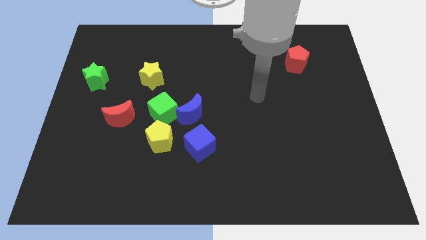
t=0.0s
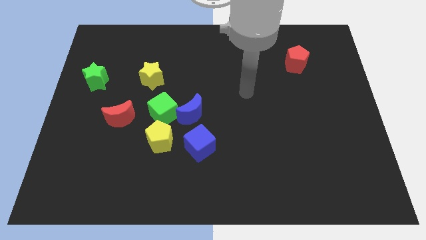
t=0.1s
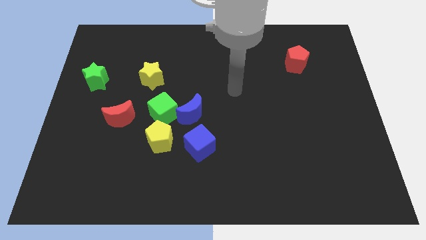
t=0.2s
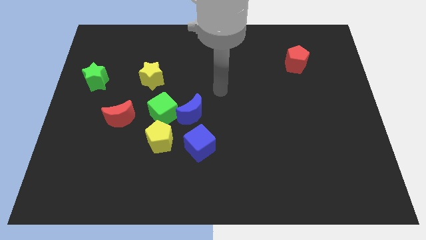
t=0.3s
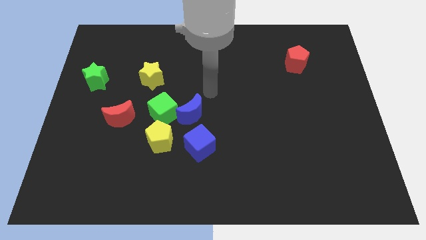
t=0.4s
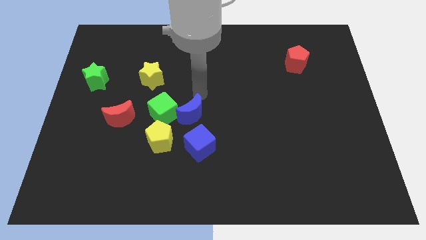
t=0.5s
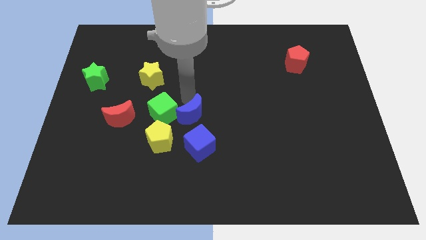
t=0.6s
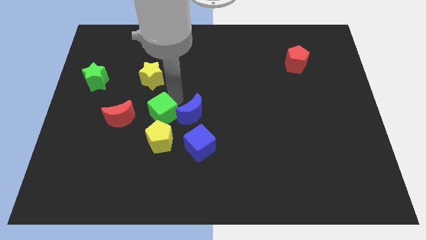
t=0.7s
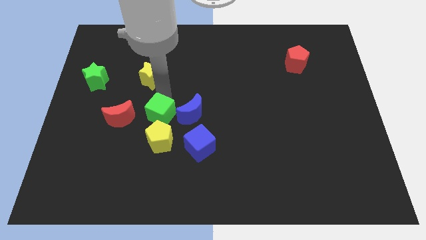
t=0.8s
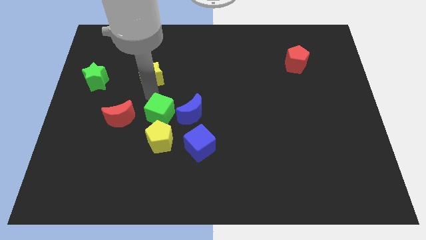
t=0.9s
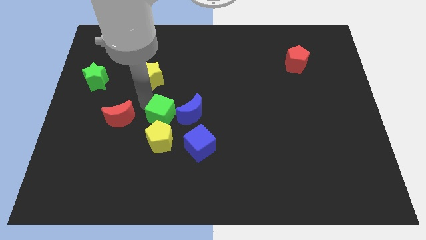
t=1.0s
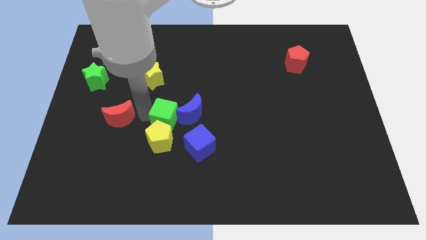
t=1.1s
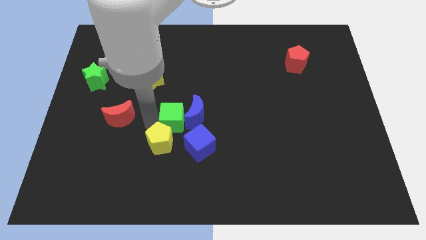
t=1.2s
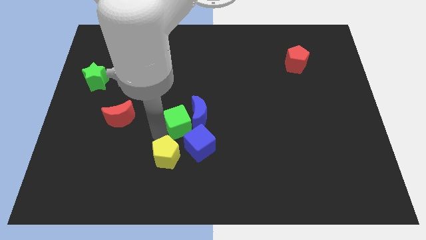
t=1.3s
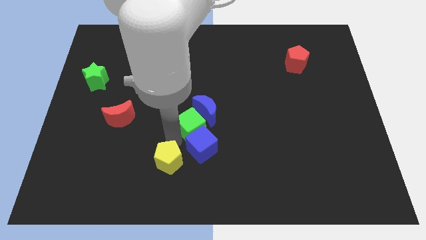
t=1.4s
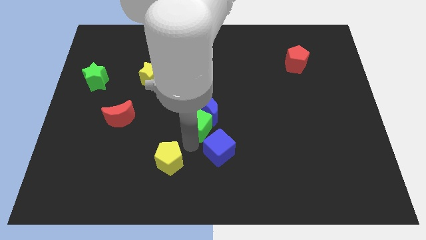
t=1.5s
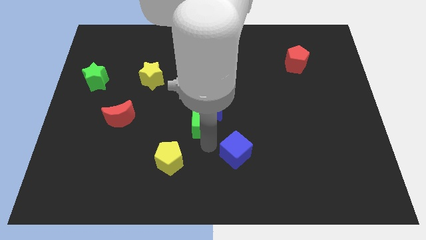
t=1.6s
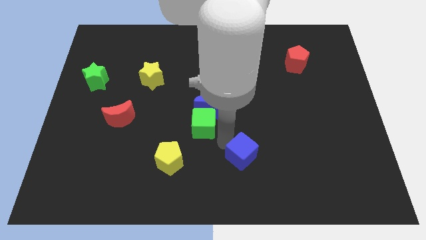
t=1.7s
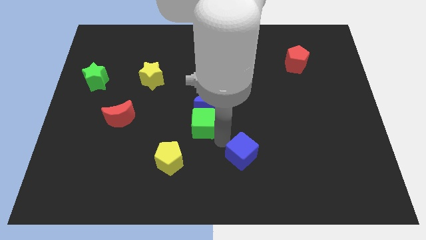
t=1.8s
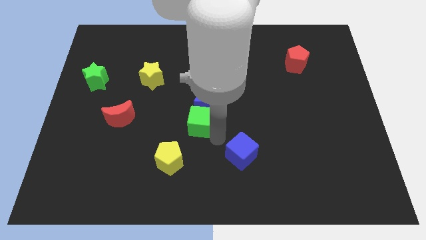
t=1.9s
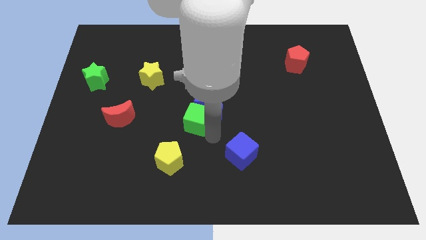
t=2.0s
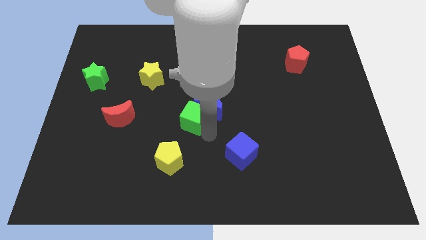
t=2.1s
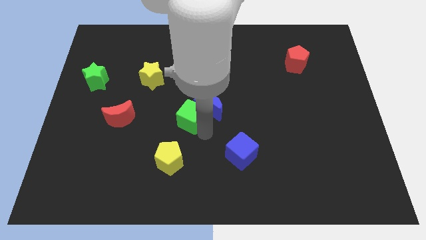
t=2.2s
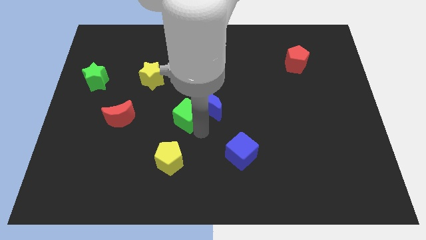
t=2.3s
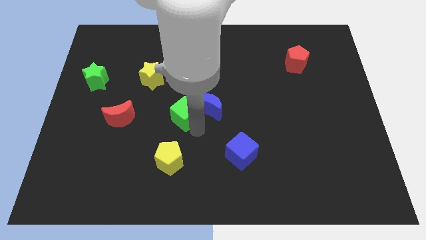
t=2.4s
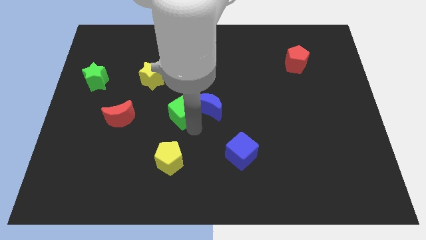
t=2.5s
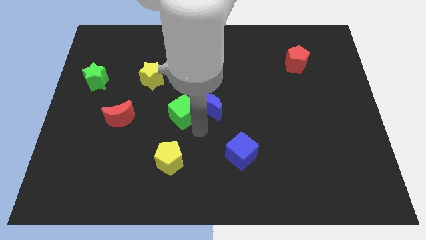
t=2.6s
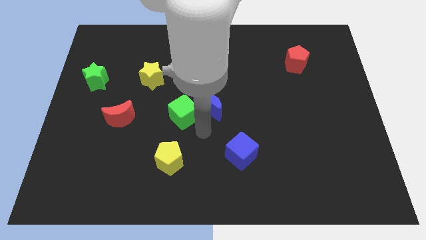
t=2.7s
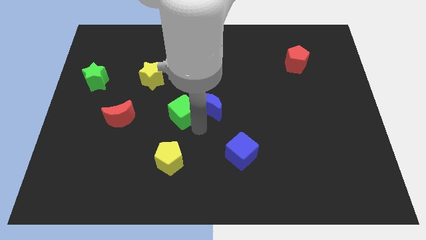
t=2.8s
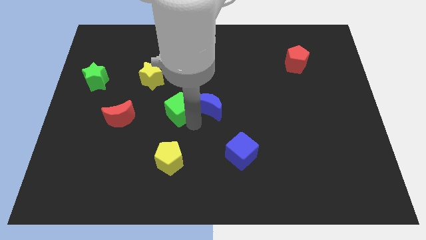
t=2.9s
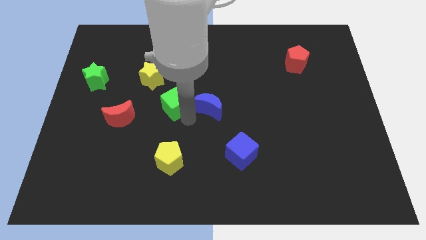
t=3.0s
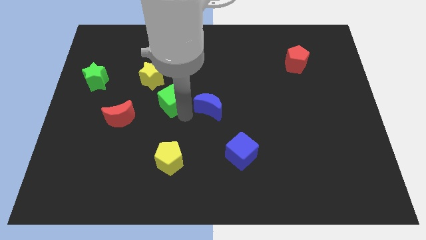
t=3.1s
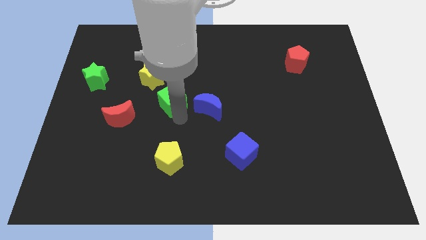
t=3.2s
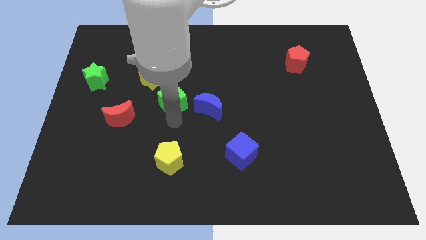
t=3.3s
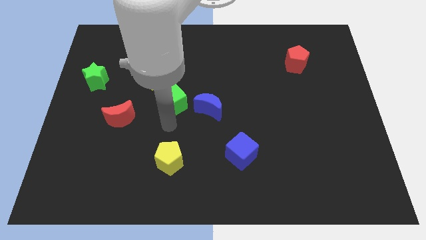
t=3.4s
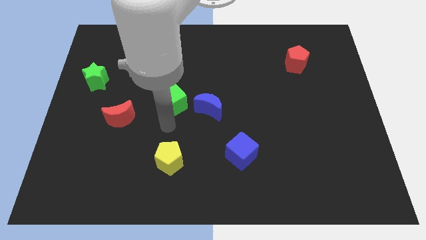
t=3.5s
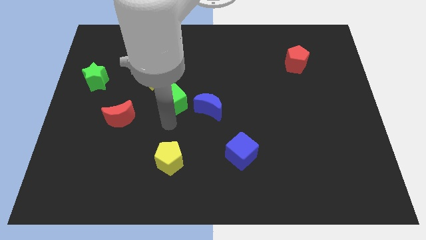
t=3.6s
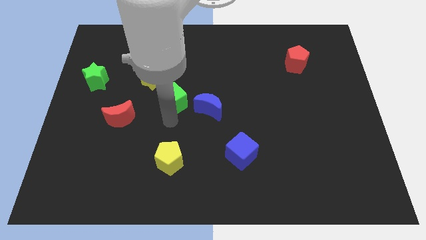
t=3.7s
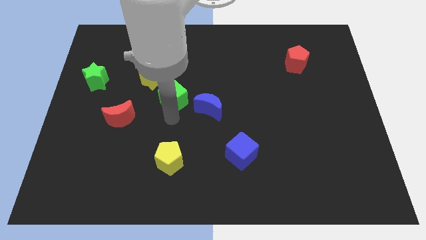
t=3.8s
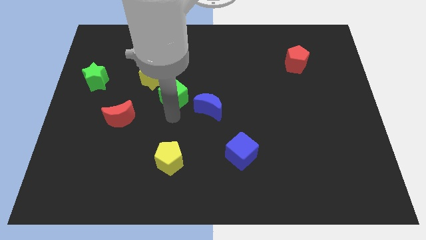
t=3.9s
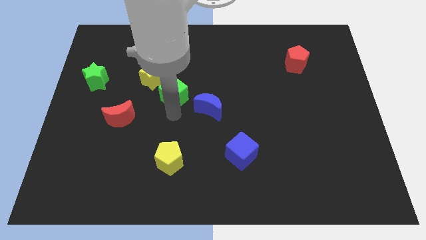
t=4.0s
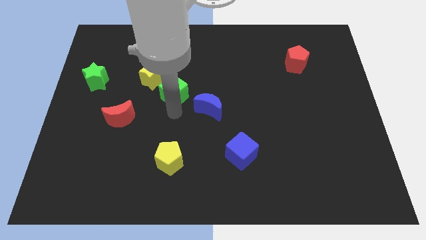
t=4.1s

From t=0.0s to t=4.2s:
separate the green cube from the clump

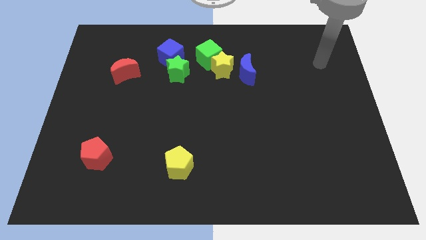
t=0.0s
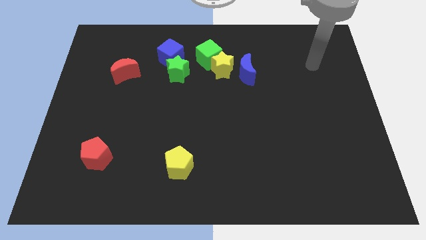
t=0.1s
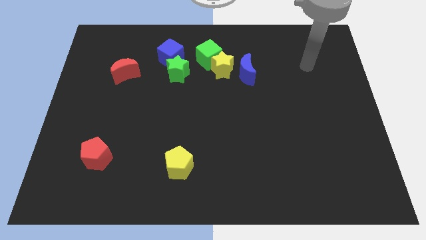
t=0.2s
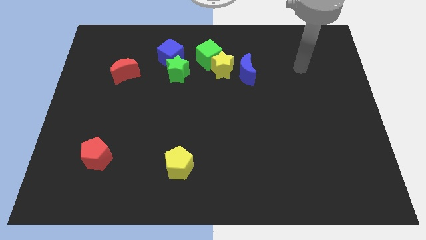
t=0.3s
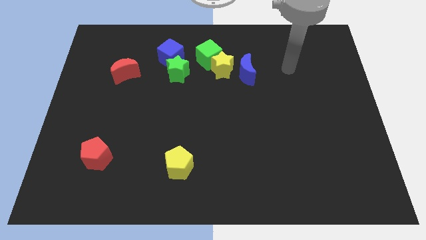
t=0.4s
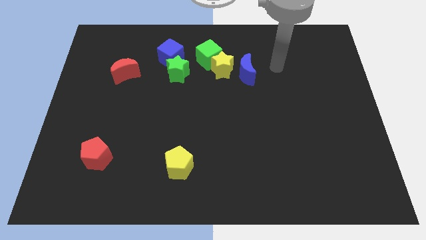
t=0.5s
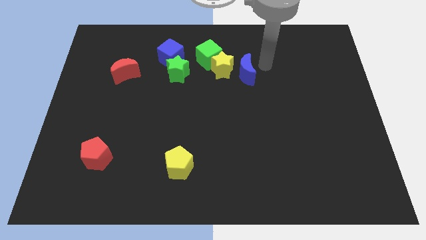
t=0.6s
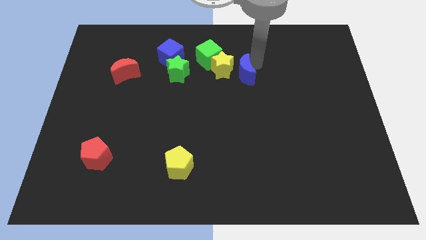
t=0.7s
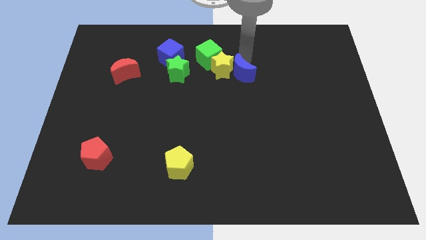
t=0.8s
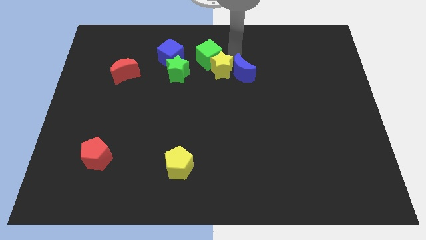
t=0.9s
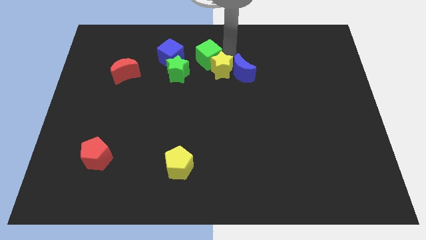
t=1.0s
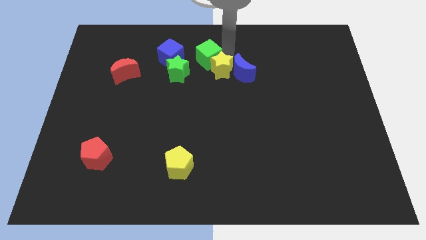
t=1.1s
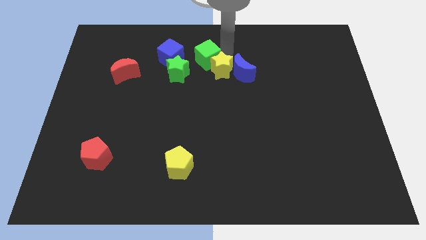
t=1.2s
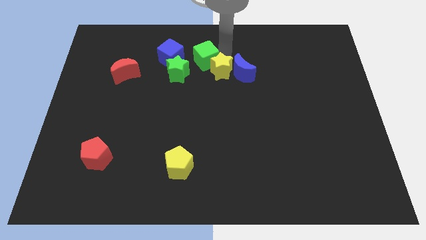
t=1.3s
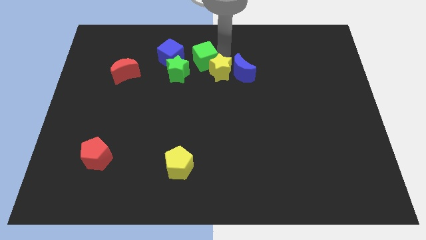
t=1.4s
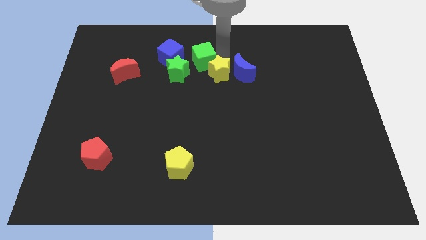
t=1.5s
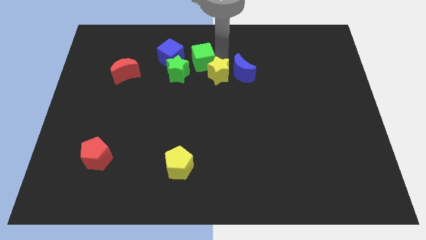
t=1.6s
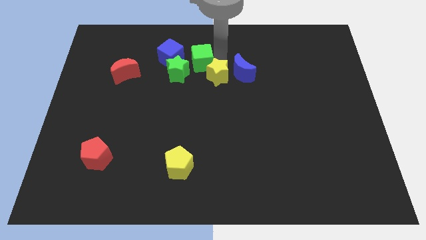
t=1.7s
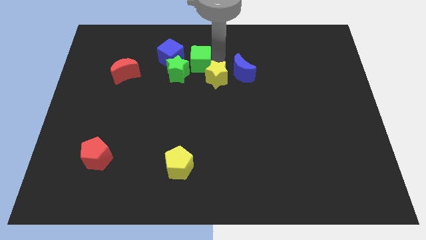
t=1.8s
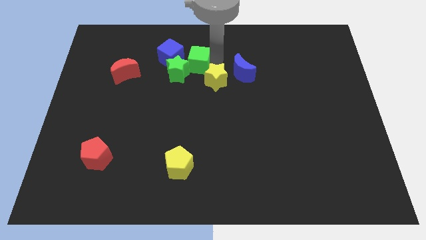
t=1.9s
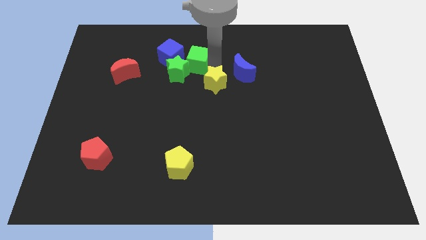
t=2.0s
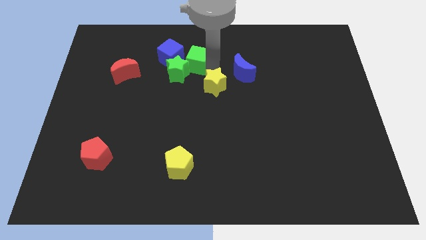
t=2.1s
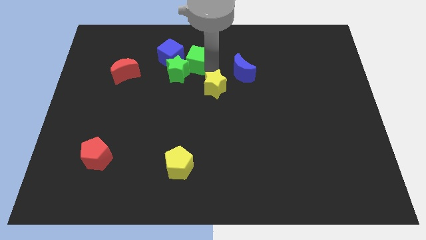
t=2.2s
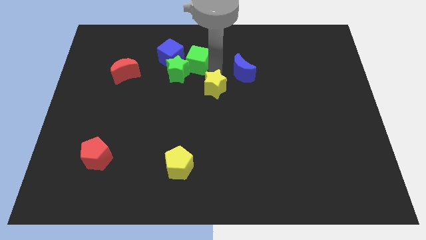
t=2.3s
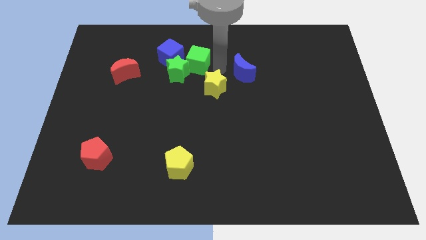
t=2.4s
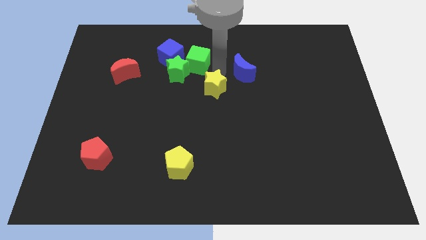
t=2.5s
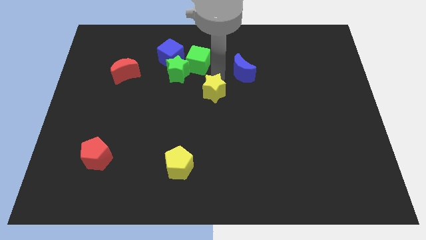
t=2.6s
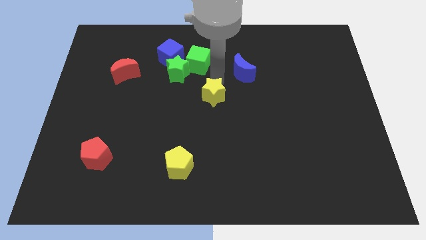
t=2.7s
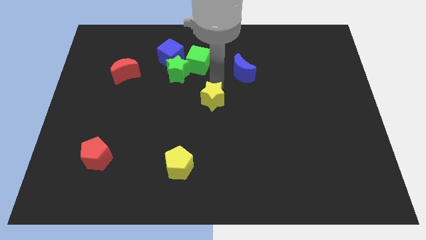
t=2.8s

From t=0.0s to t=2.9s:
move the yellow star away from the green cube and blue moon

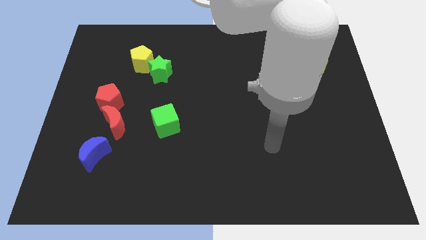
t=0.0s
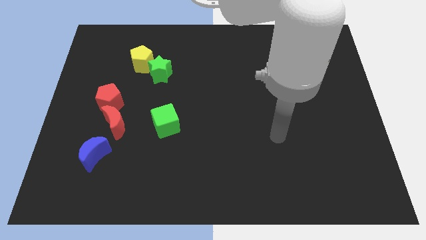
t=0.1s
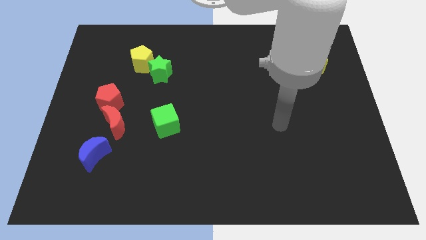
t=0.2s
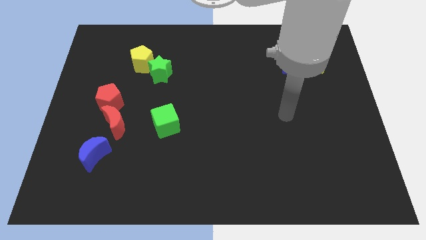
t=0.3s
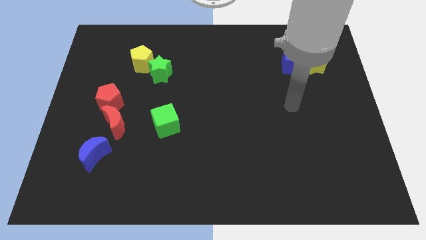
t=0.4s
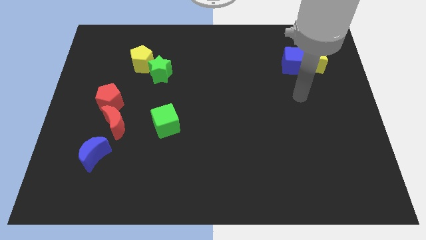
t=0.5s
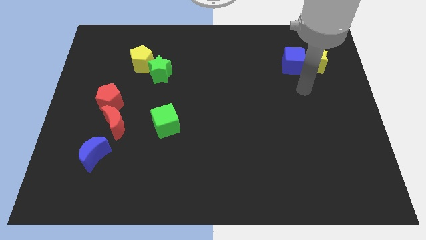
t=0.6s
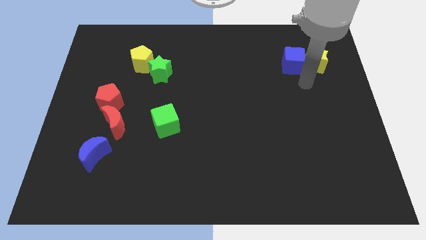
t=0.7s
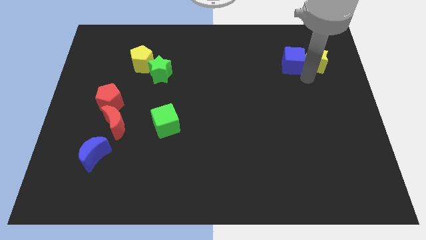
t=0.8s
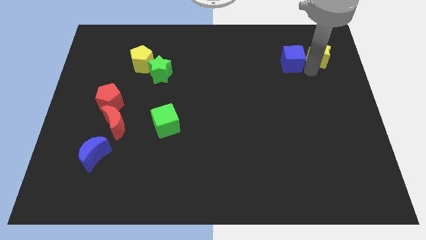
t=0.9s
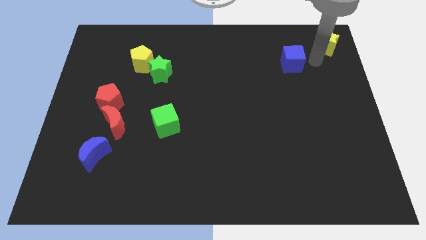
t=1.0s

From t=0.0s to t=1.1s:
separate the blue cube from the yellow star

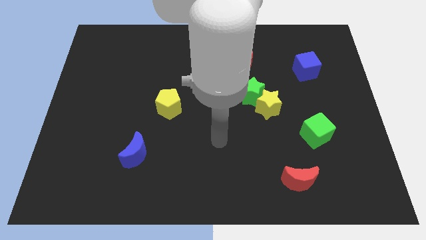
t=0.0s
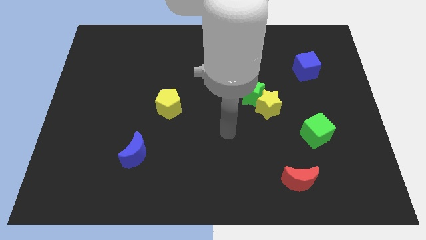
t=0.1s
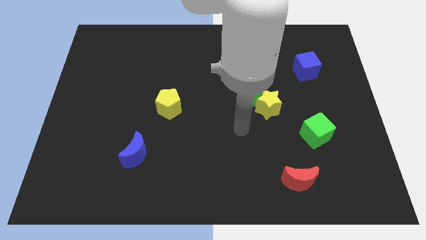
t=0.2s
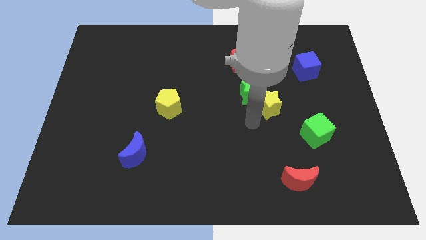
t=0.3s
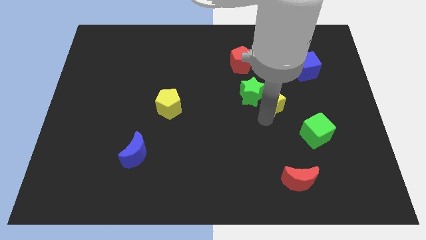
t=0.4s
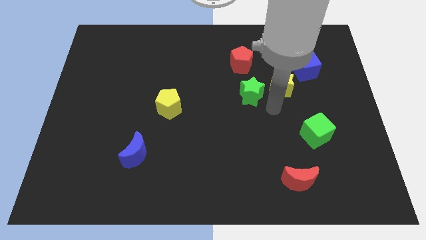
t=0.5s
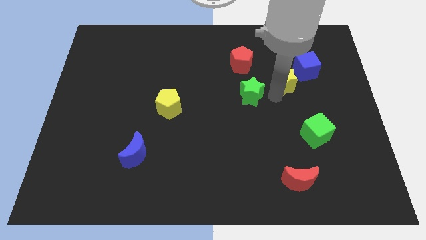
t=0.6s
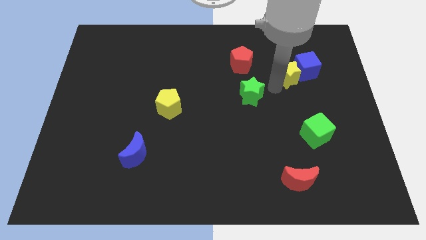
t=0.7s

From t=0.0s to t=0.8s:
separate the green star from the yellow star

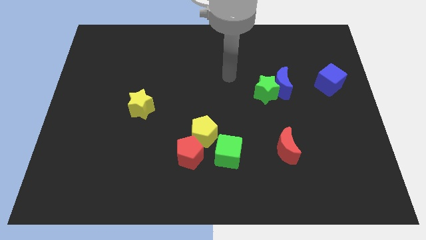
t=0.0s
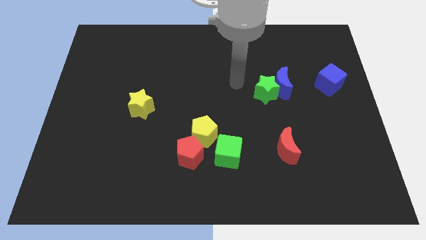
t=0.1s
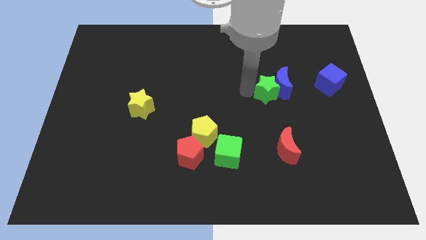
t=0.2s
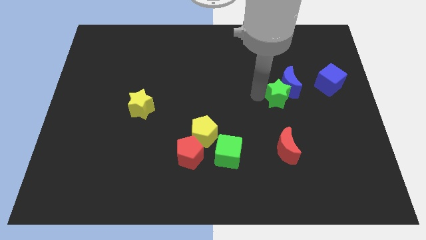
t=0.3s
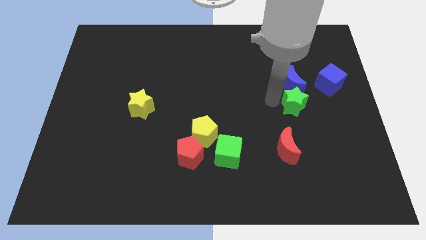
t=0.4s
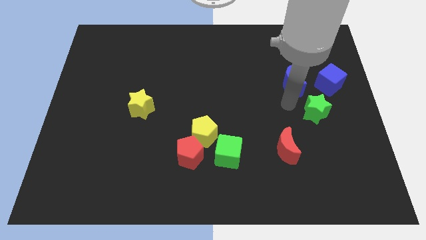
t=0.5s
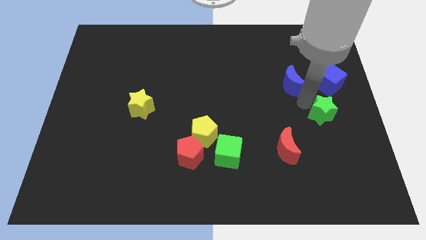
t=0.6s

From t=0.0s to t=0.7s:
move the blue moon away from the green star
